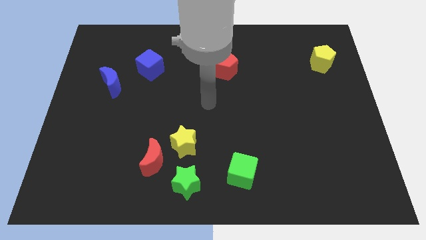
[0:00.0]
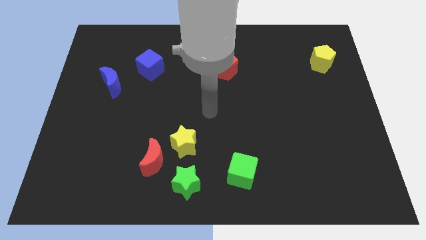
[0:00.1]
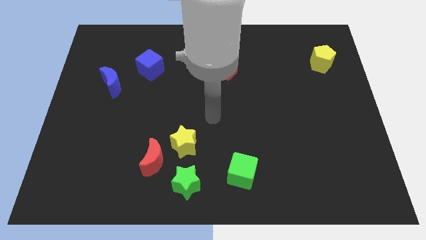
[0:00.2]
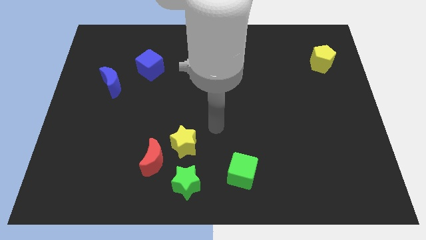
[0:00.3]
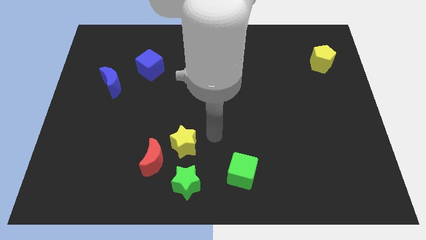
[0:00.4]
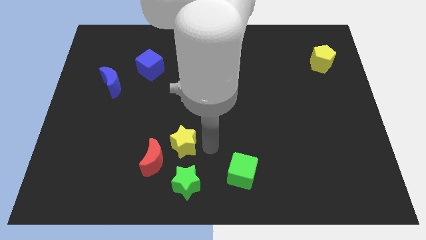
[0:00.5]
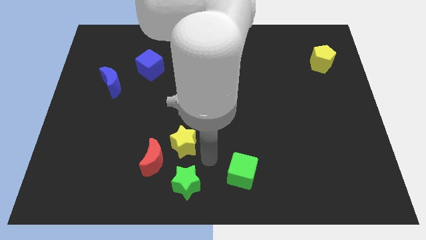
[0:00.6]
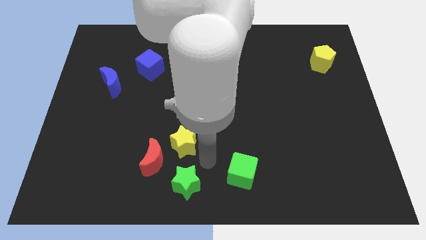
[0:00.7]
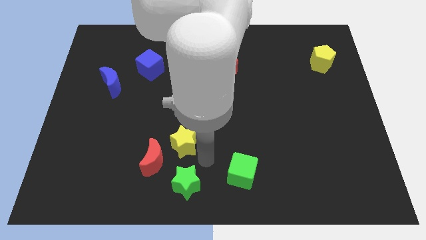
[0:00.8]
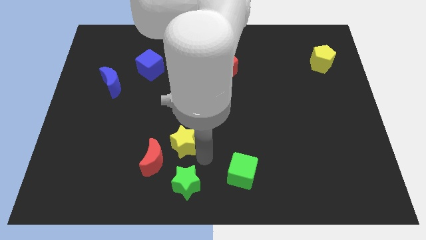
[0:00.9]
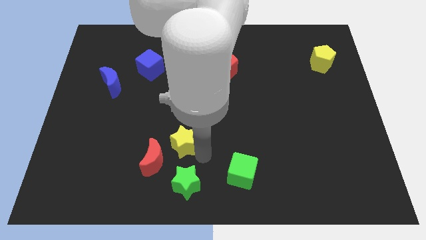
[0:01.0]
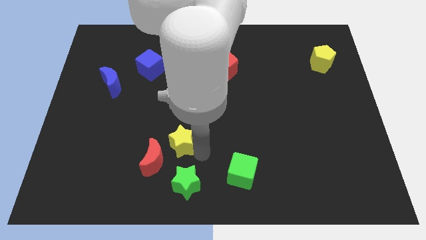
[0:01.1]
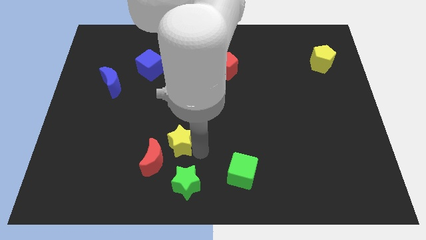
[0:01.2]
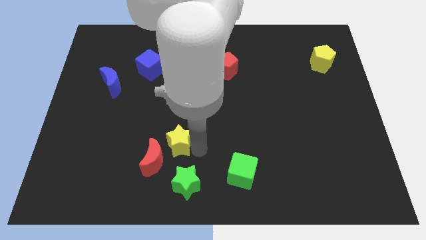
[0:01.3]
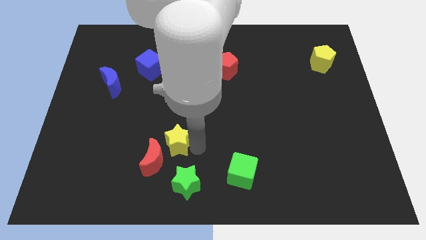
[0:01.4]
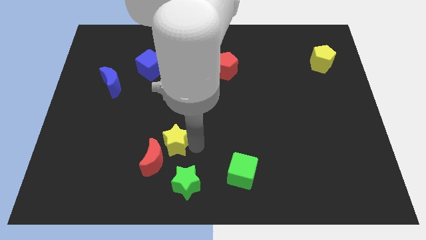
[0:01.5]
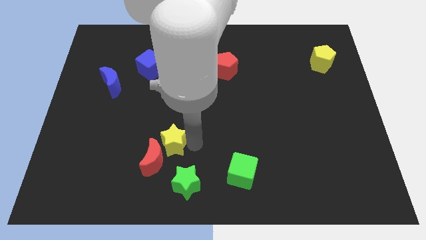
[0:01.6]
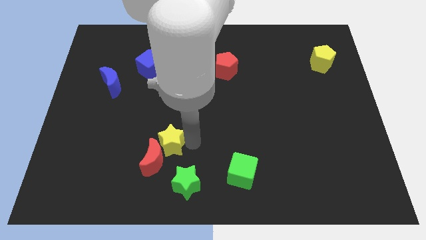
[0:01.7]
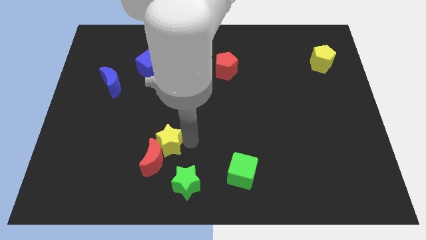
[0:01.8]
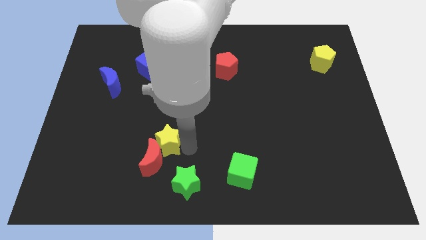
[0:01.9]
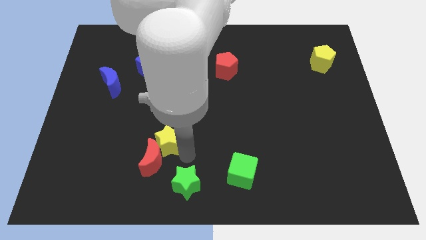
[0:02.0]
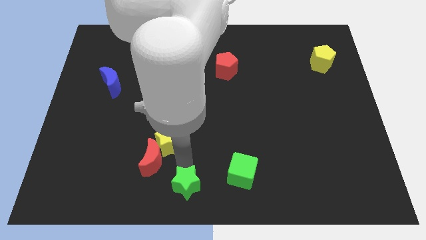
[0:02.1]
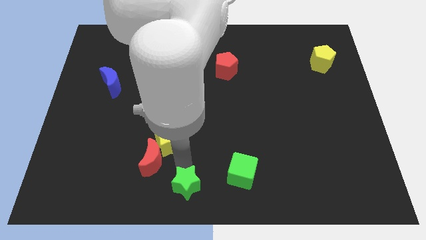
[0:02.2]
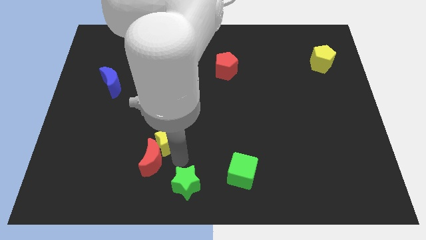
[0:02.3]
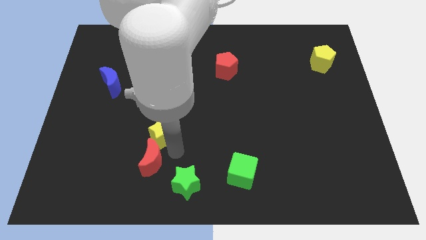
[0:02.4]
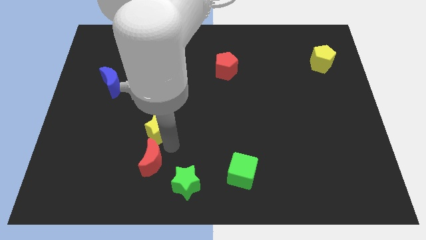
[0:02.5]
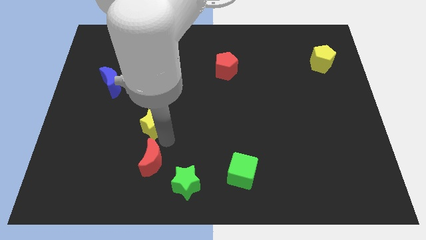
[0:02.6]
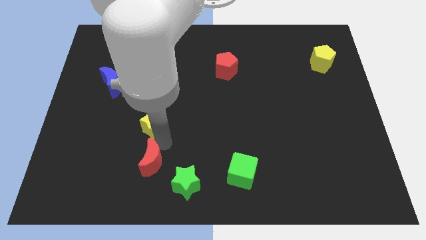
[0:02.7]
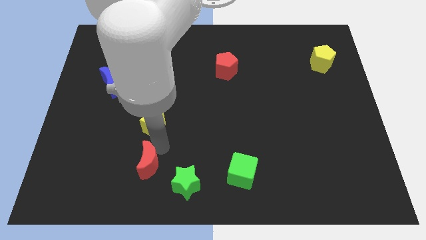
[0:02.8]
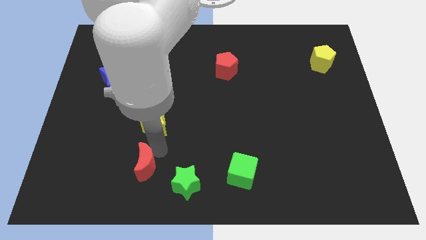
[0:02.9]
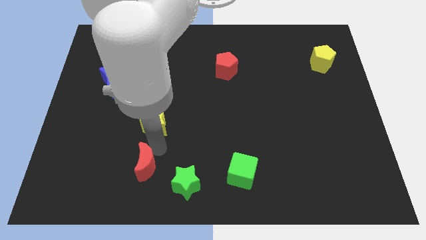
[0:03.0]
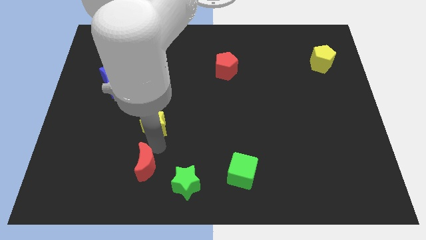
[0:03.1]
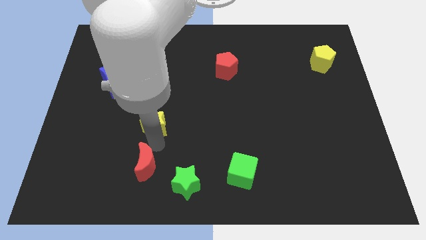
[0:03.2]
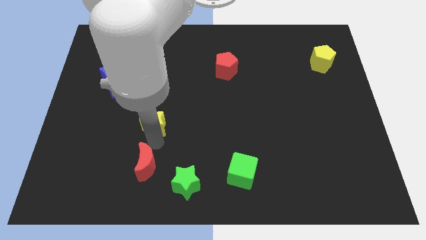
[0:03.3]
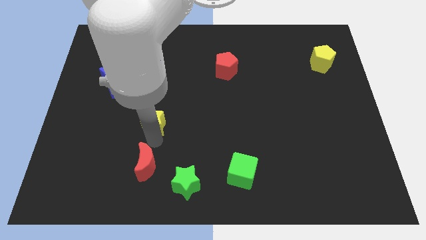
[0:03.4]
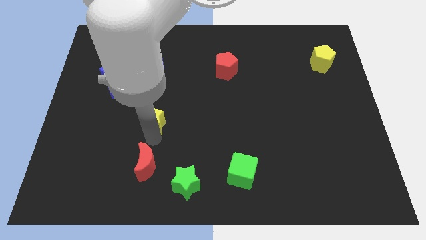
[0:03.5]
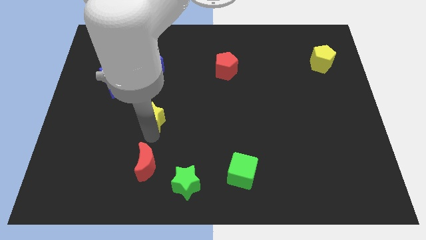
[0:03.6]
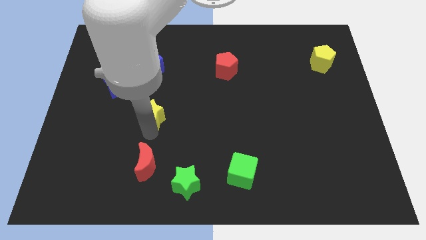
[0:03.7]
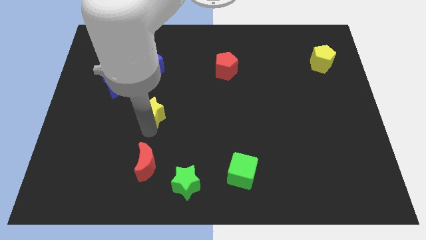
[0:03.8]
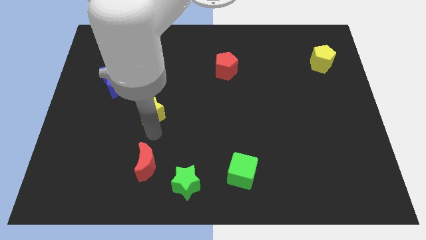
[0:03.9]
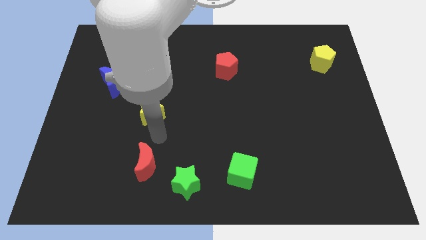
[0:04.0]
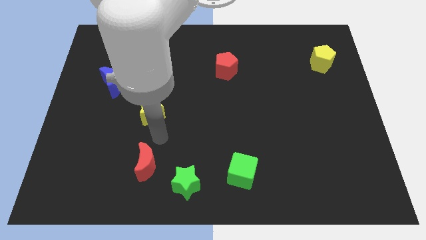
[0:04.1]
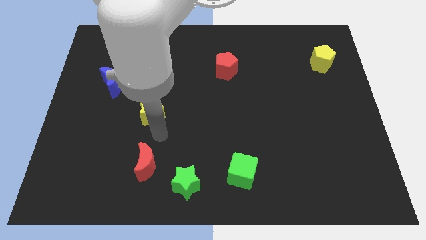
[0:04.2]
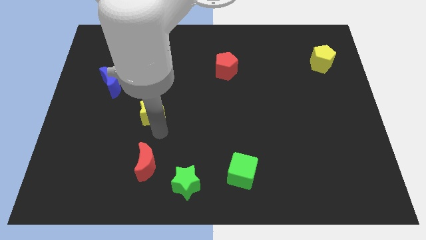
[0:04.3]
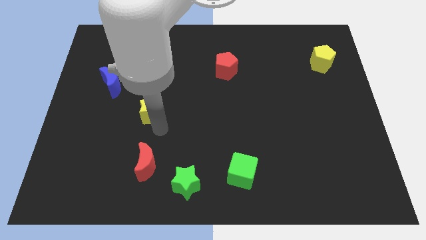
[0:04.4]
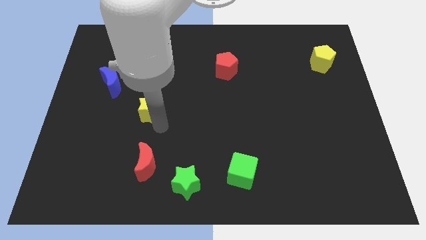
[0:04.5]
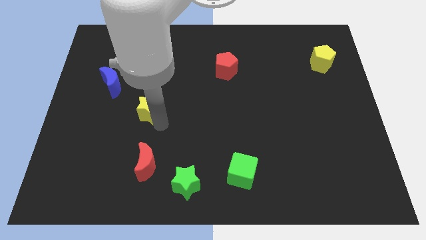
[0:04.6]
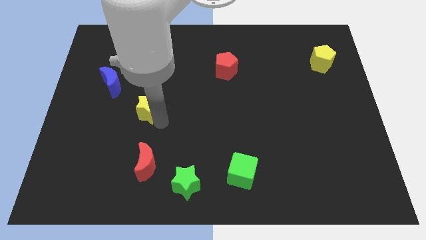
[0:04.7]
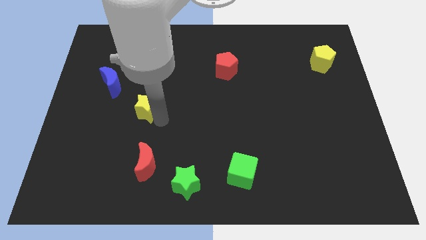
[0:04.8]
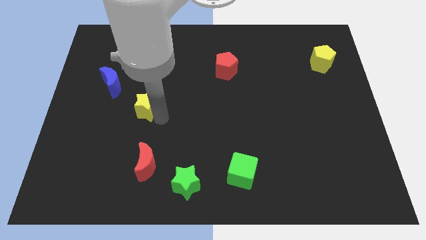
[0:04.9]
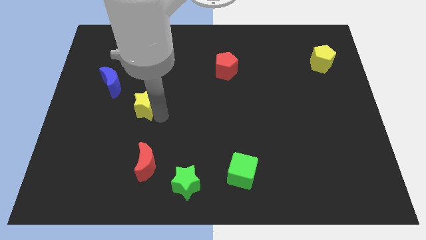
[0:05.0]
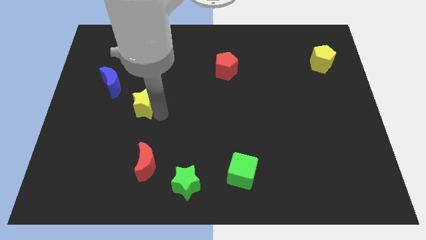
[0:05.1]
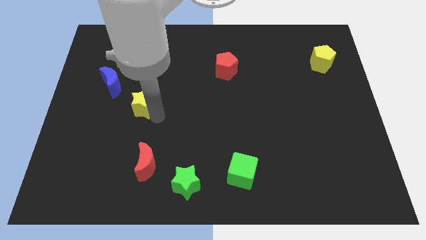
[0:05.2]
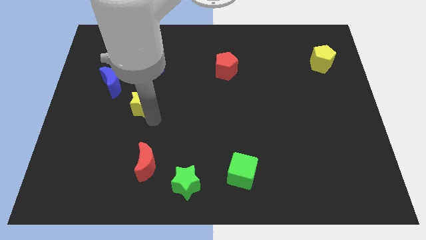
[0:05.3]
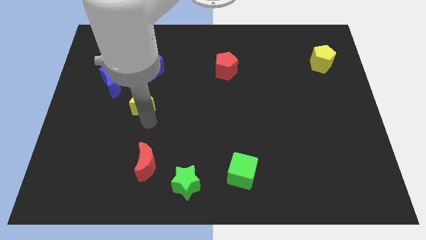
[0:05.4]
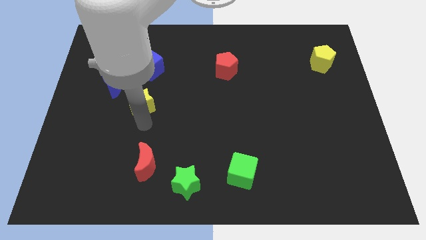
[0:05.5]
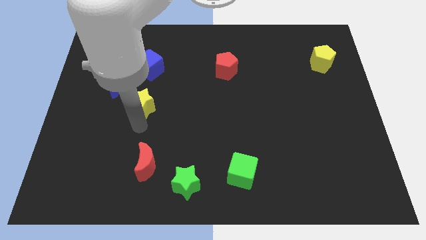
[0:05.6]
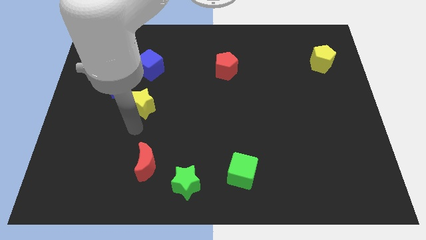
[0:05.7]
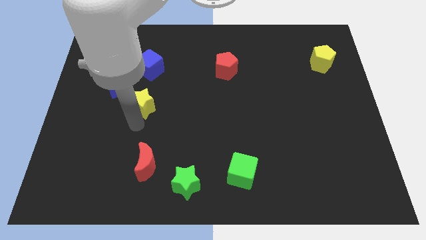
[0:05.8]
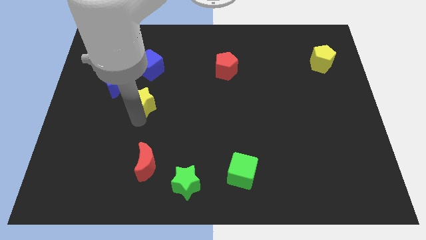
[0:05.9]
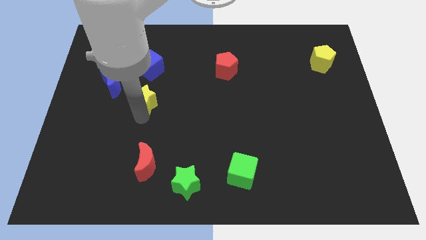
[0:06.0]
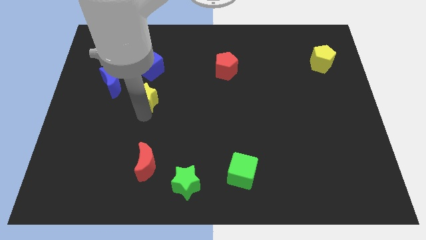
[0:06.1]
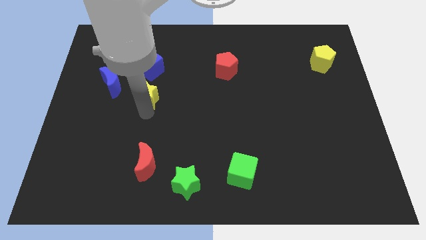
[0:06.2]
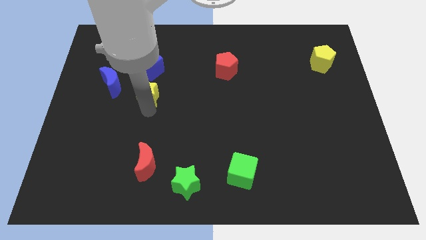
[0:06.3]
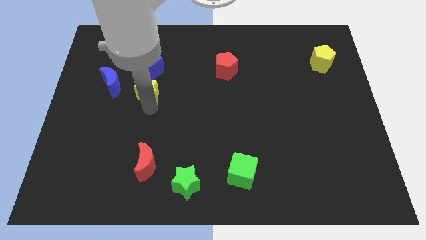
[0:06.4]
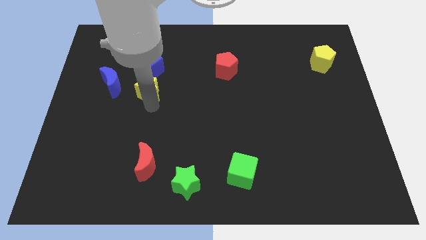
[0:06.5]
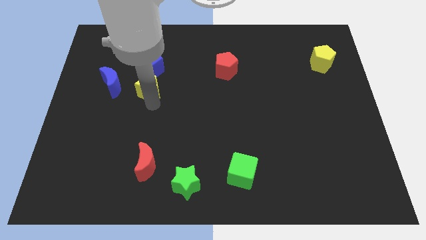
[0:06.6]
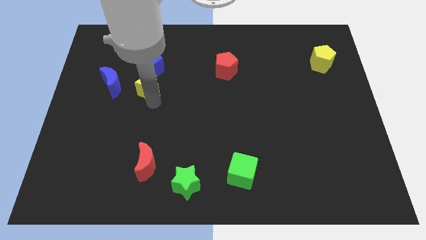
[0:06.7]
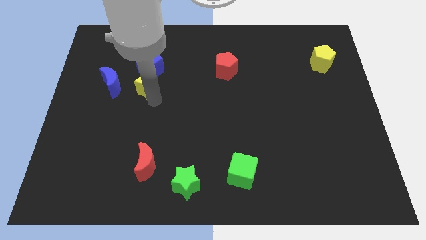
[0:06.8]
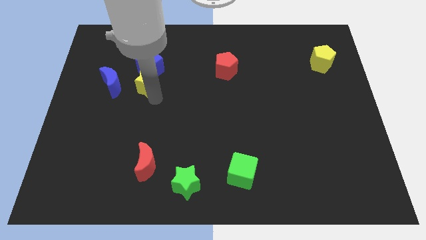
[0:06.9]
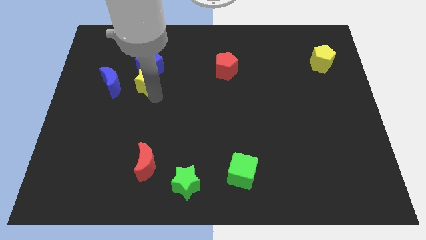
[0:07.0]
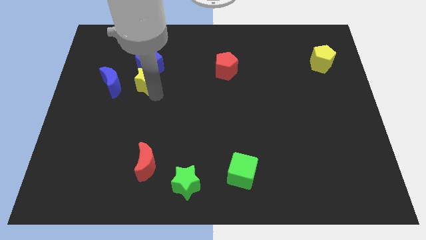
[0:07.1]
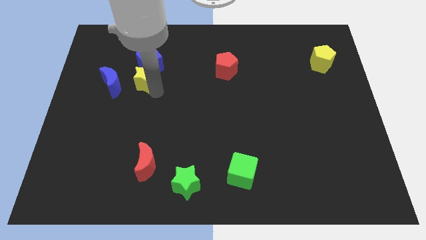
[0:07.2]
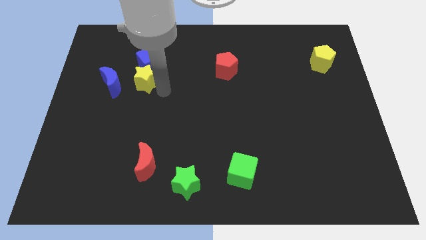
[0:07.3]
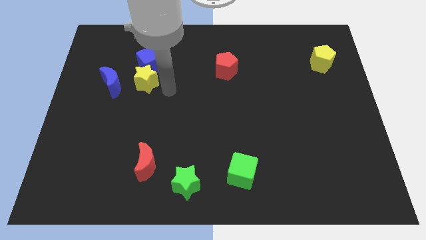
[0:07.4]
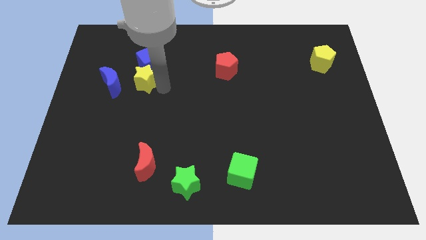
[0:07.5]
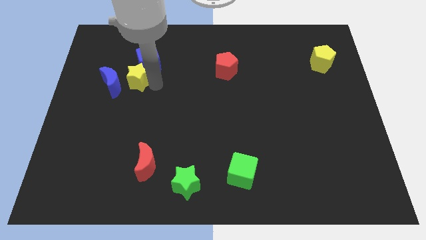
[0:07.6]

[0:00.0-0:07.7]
move the yellow star up and left

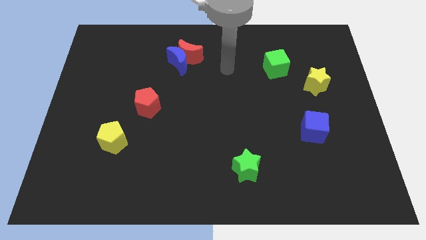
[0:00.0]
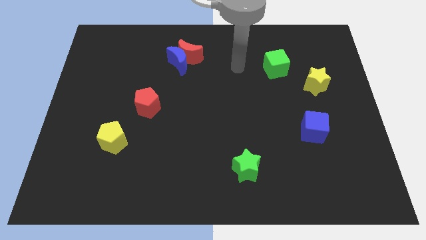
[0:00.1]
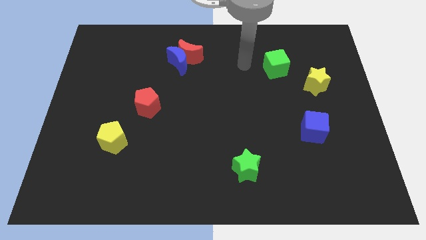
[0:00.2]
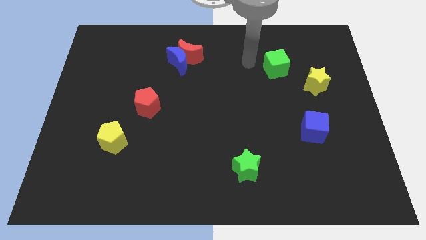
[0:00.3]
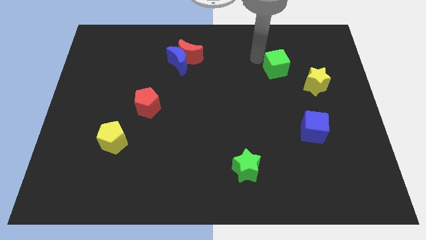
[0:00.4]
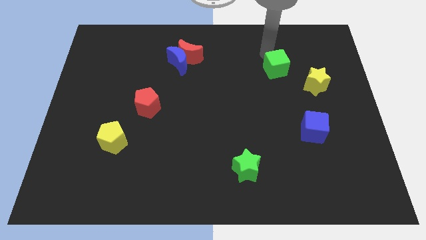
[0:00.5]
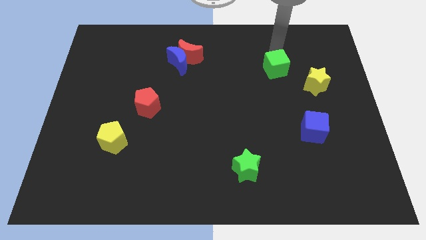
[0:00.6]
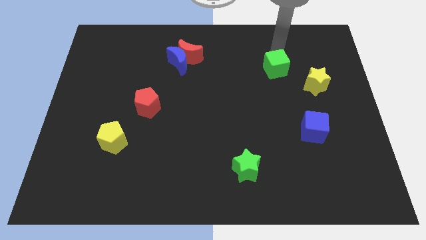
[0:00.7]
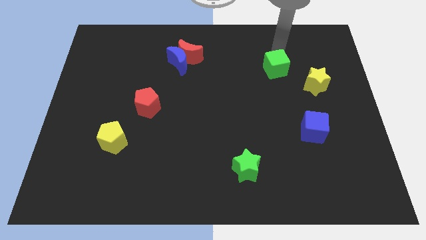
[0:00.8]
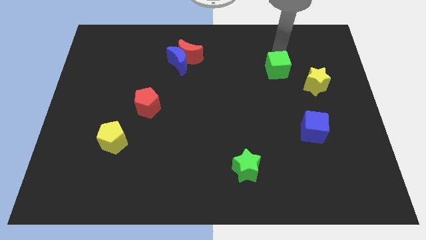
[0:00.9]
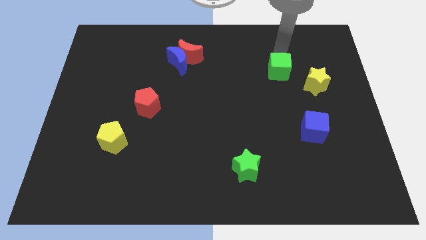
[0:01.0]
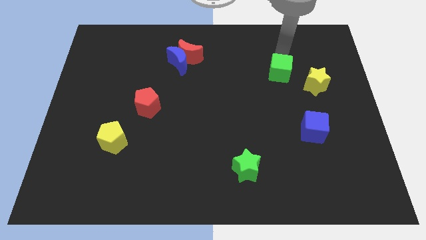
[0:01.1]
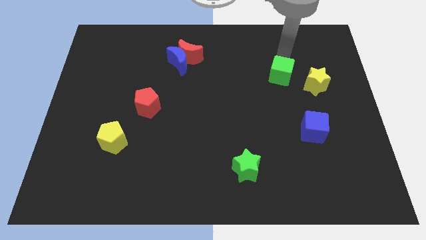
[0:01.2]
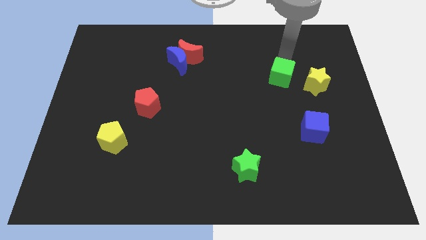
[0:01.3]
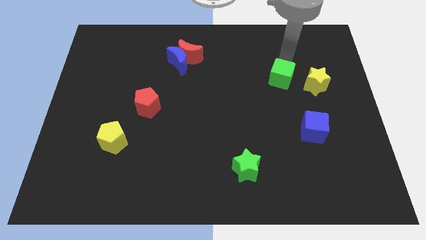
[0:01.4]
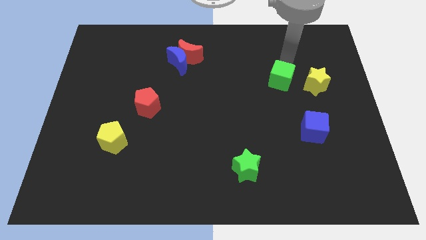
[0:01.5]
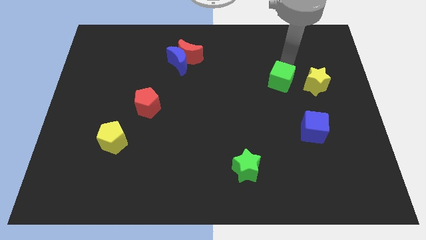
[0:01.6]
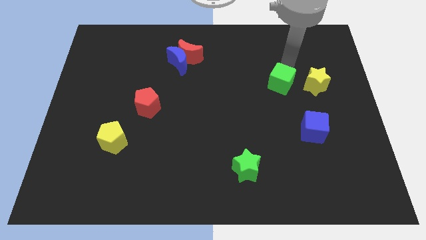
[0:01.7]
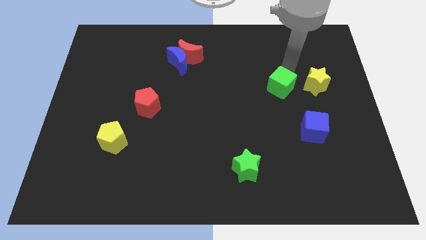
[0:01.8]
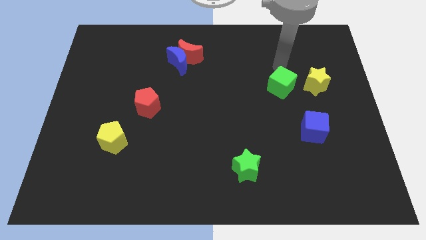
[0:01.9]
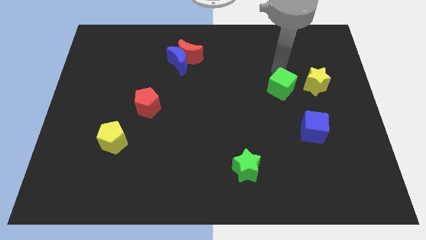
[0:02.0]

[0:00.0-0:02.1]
slightly push the green cube downwards
